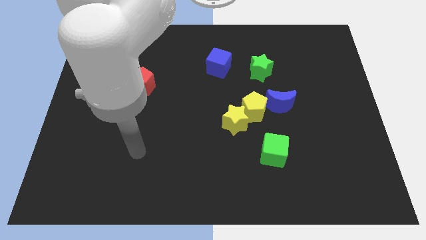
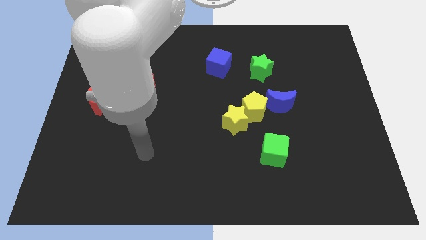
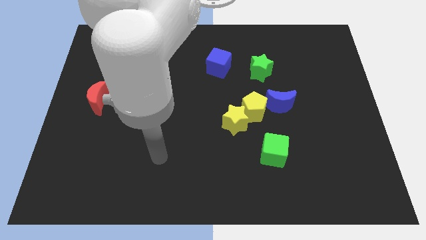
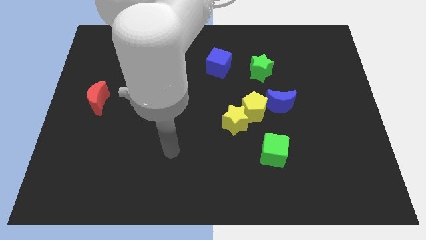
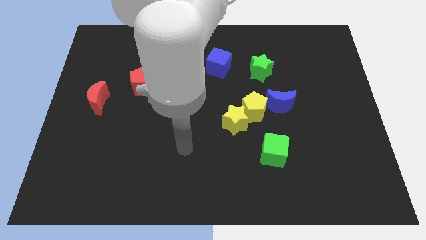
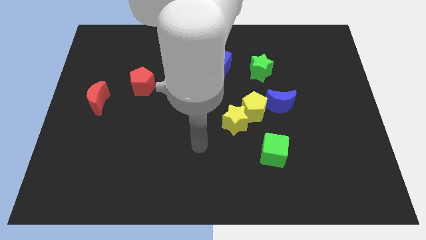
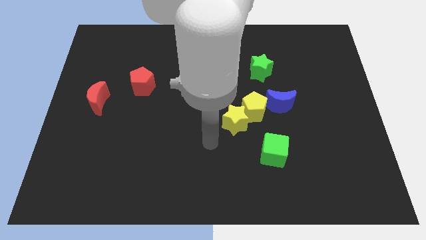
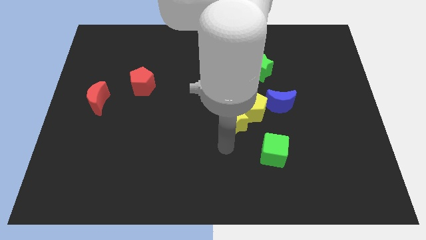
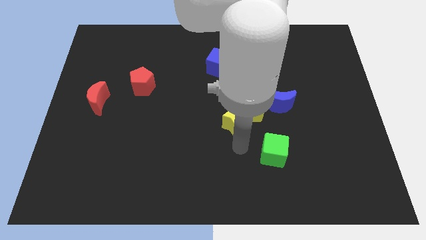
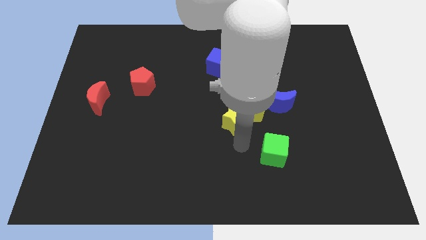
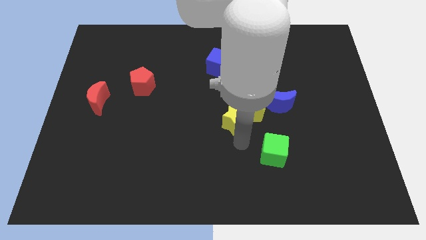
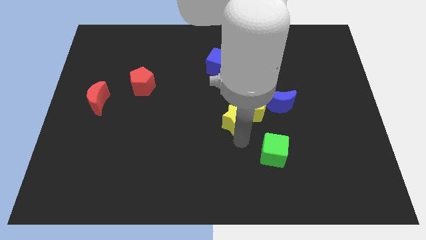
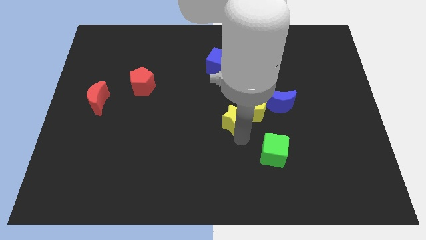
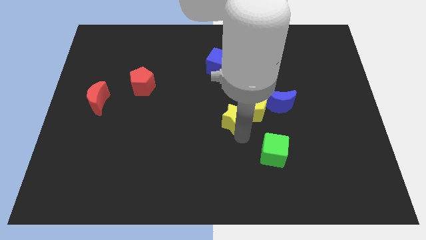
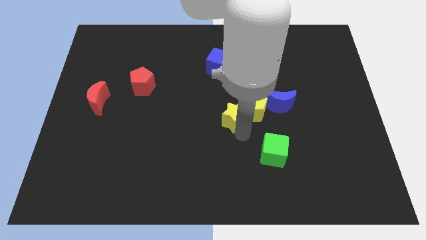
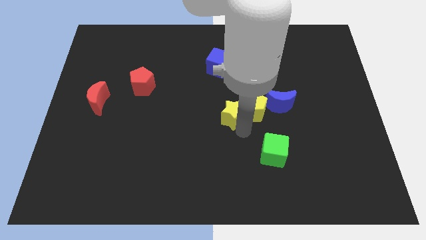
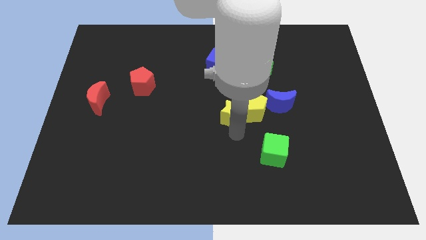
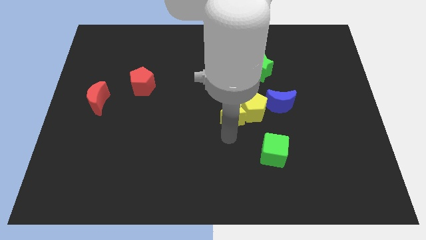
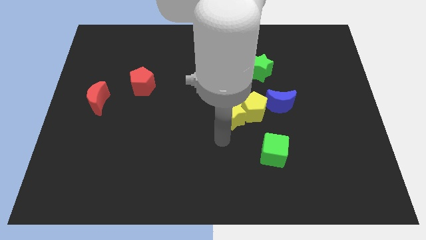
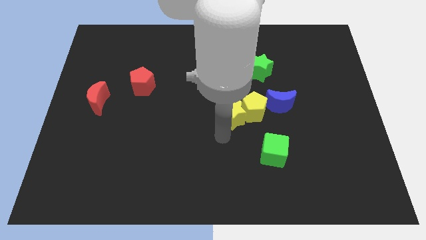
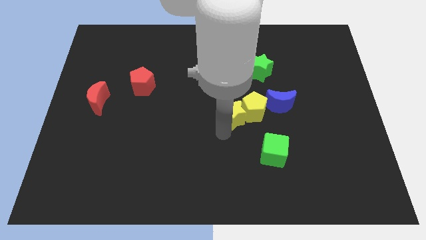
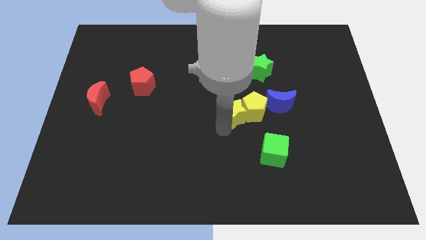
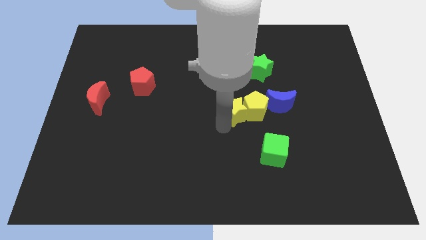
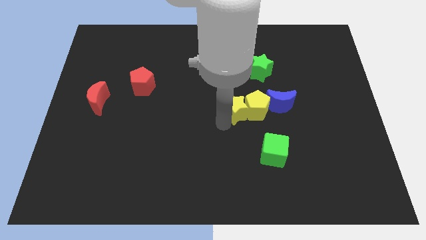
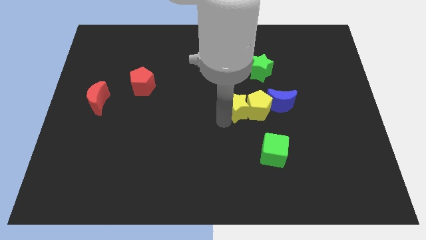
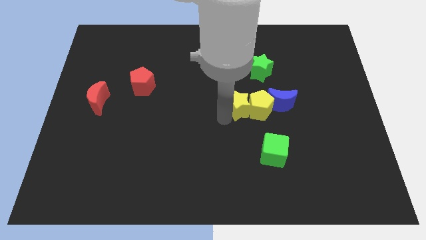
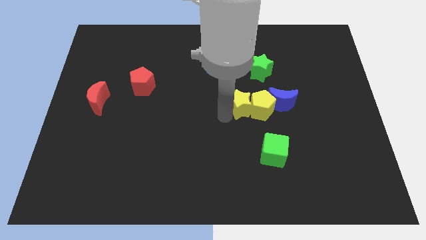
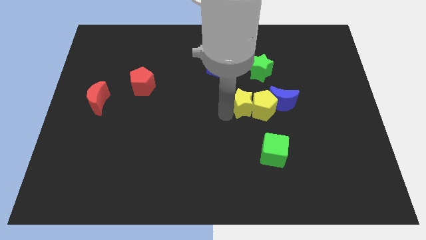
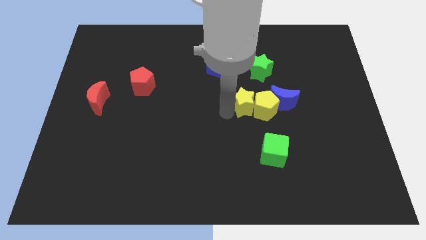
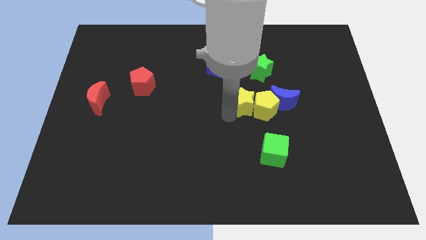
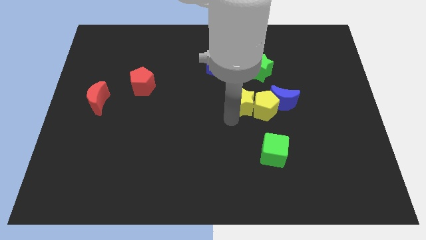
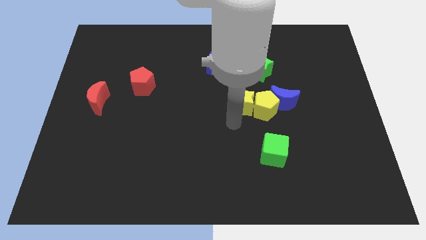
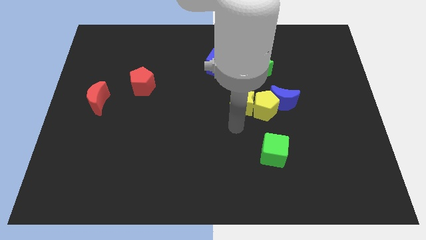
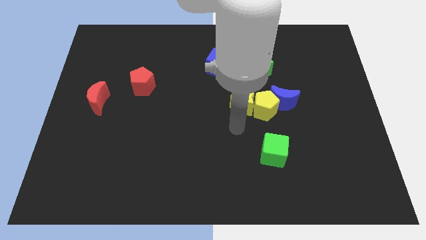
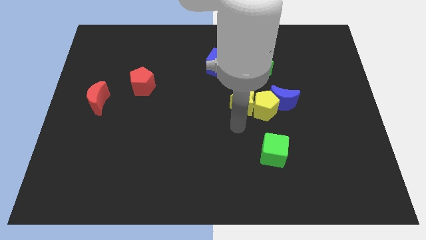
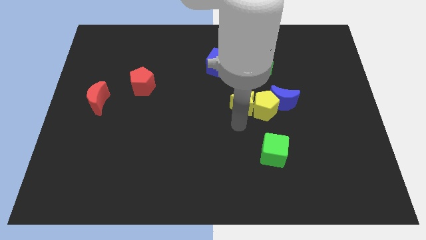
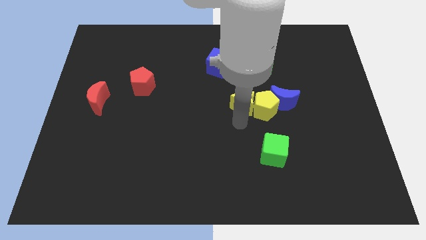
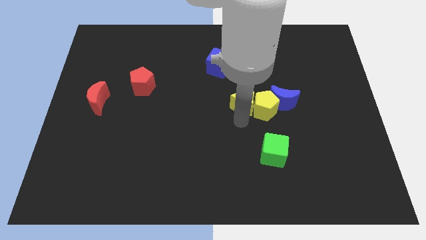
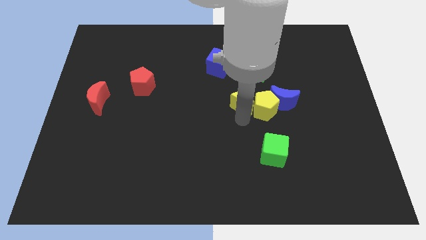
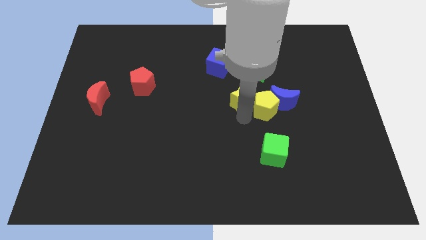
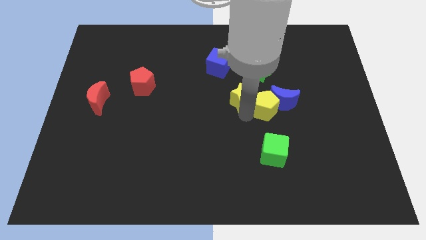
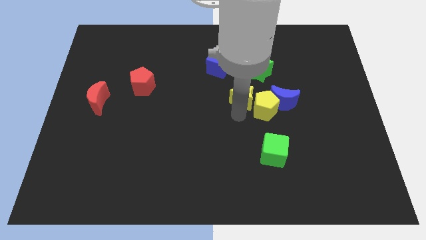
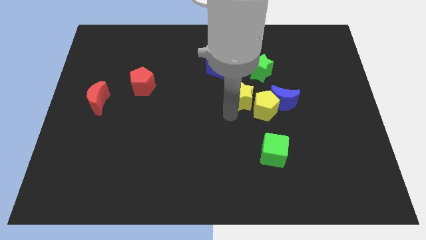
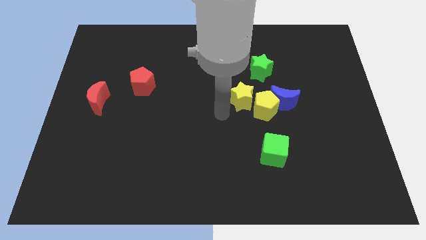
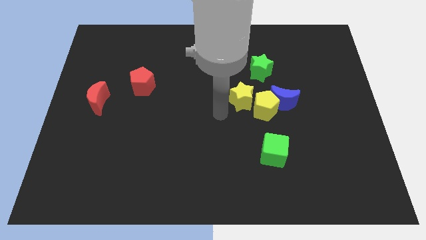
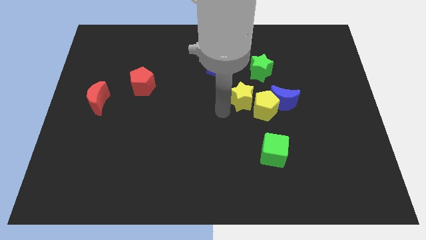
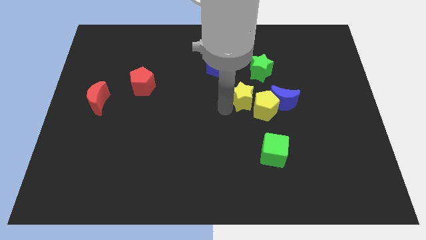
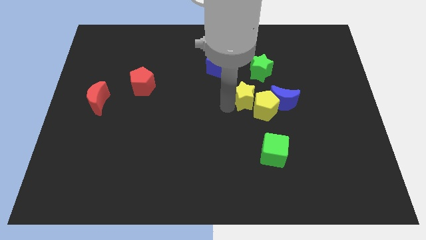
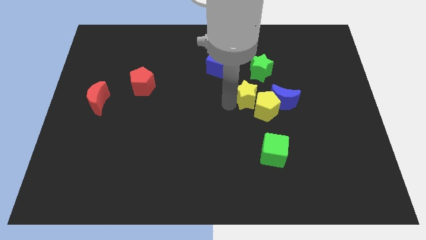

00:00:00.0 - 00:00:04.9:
slightly push the yellow star upwards and to the right

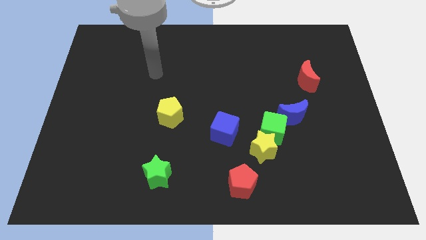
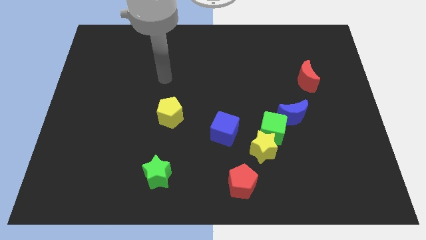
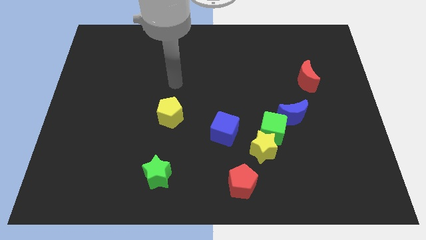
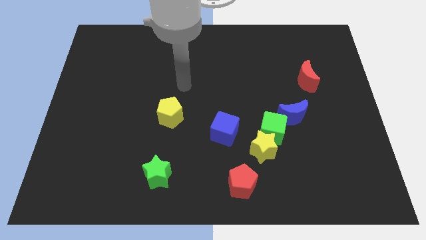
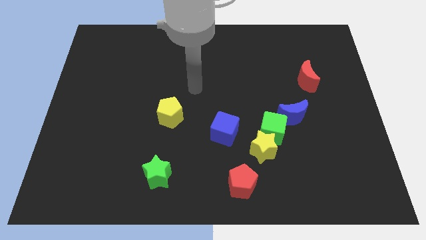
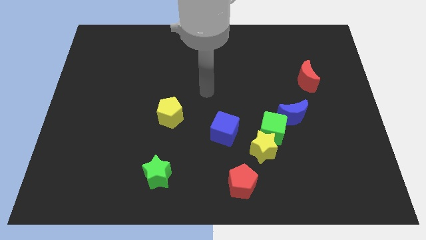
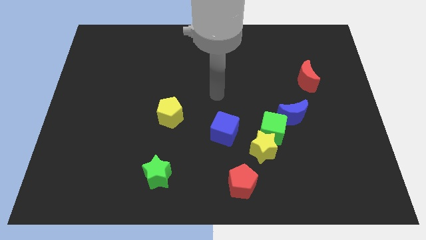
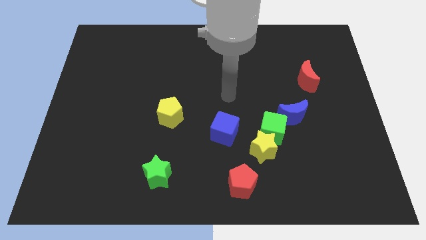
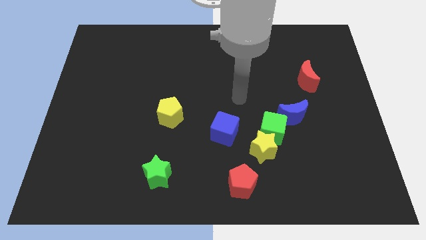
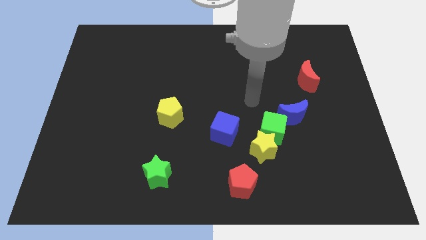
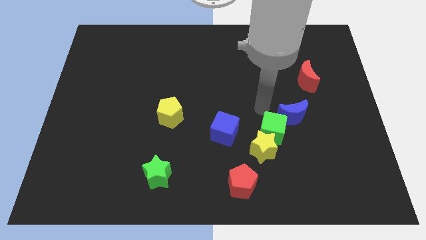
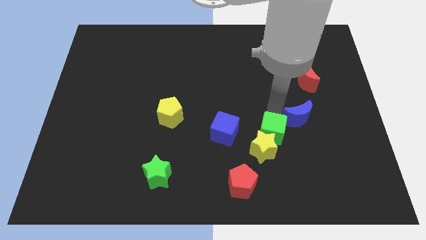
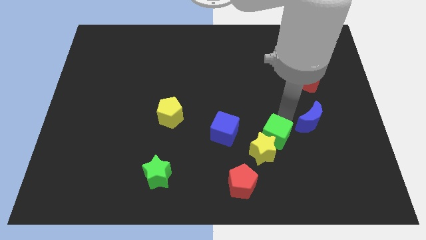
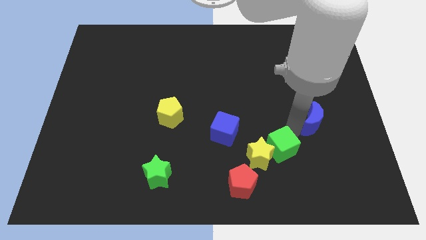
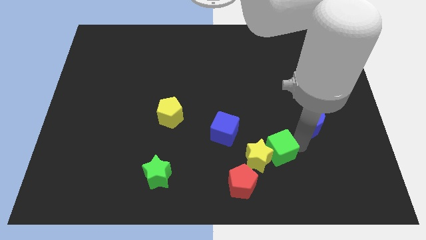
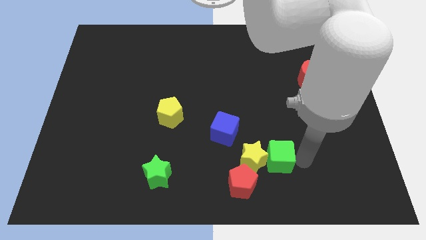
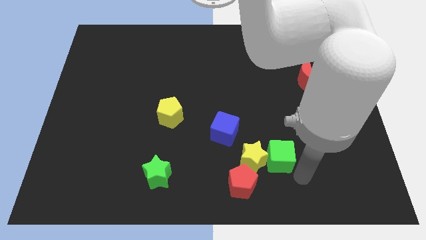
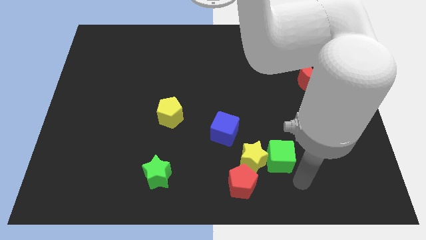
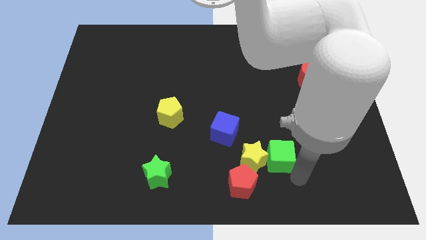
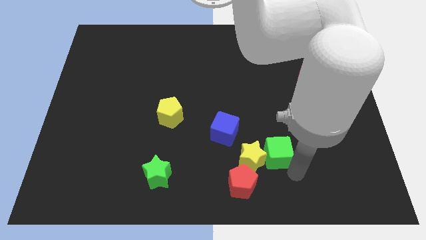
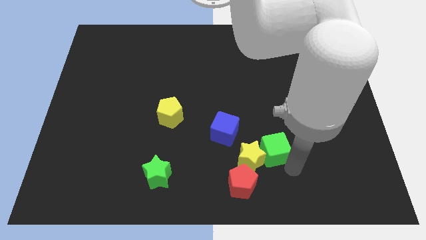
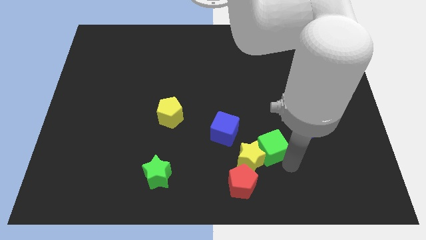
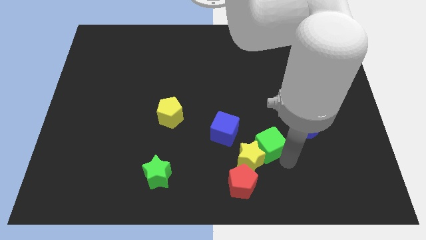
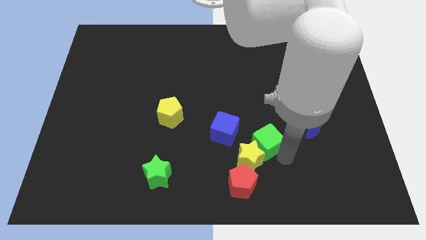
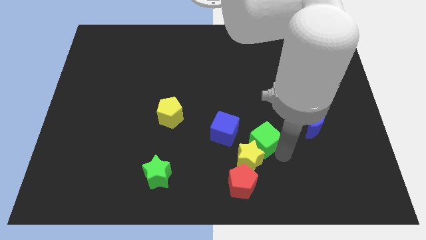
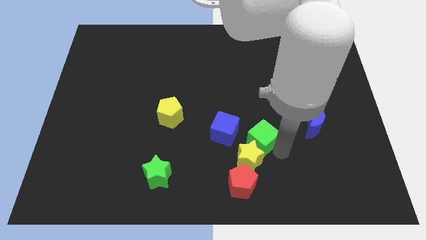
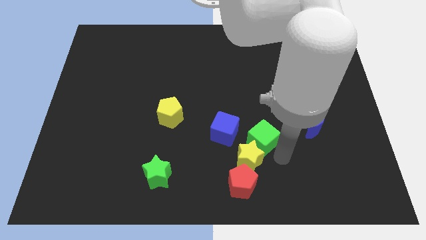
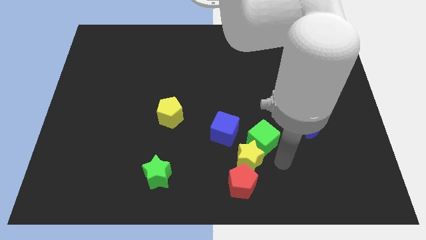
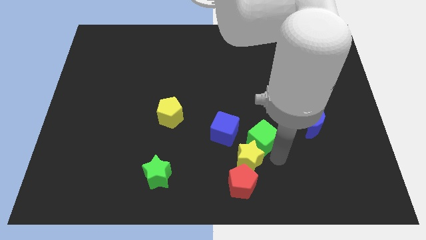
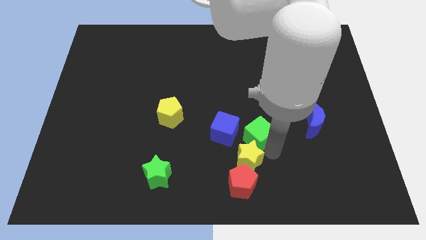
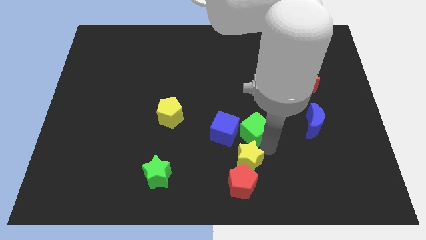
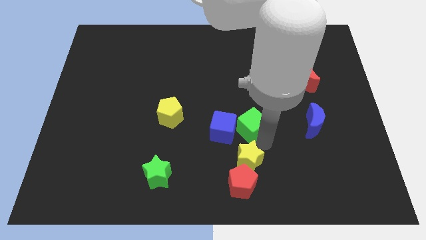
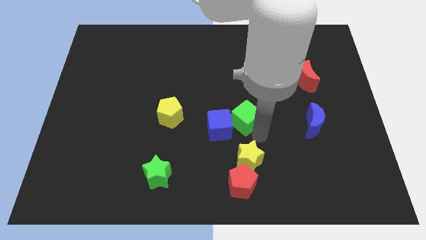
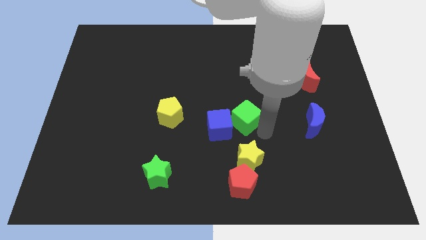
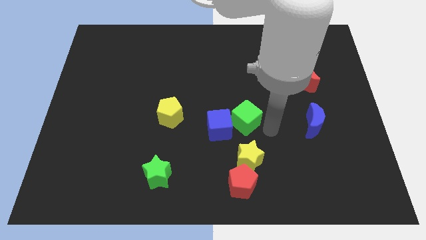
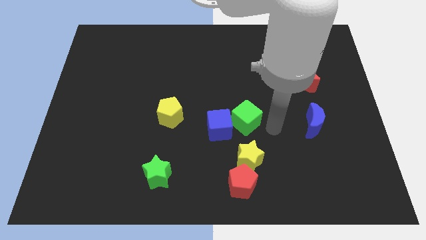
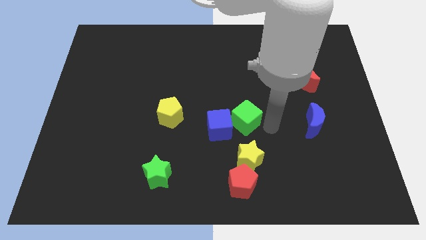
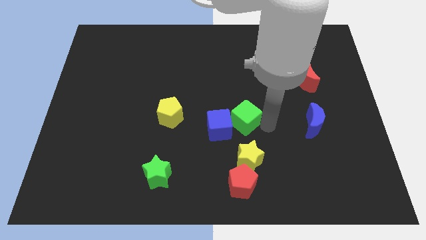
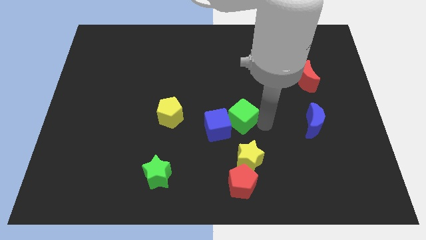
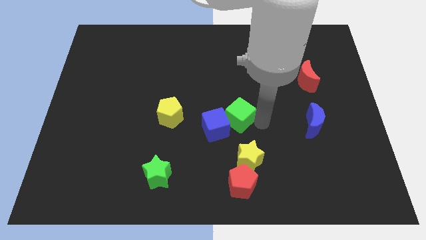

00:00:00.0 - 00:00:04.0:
push the green cube a little bit to the left
